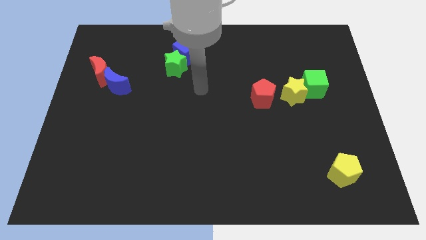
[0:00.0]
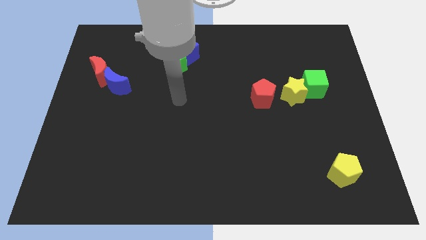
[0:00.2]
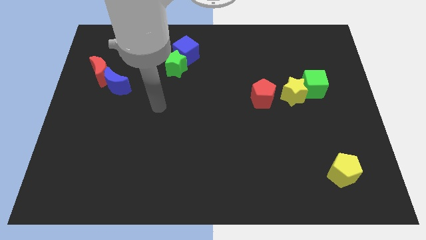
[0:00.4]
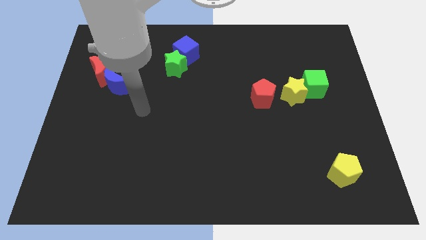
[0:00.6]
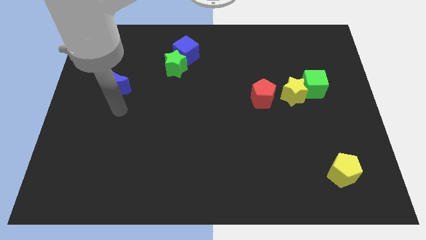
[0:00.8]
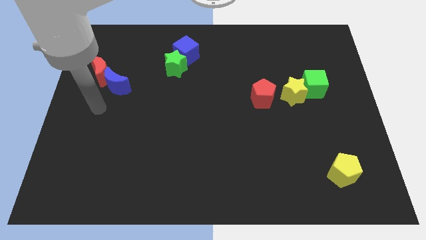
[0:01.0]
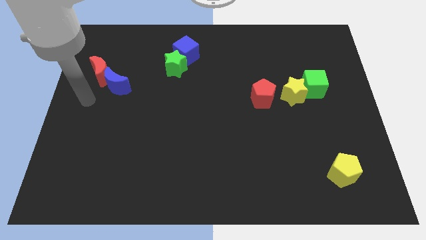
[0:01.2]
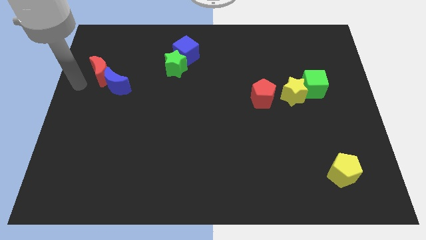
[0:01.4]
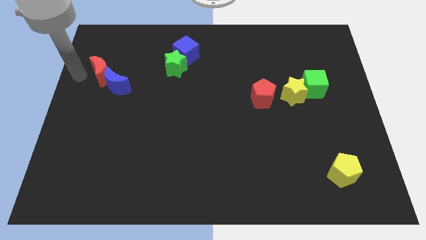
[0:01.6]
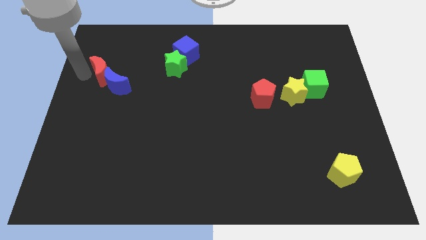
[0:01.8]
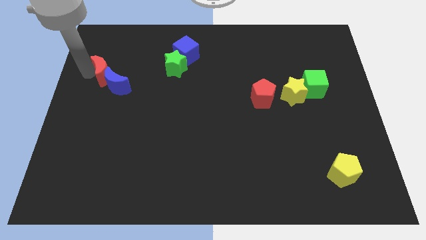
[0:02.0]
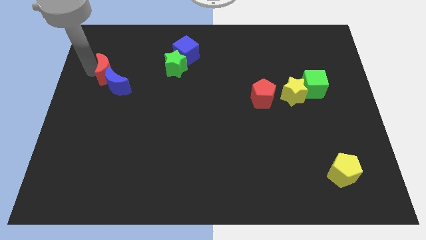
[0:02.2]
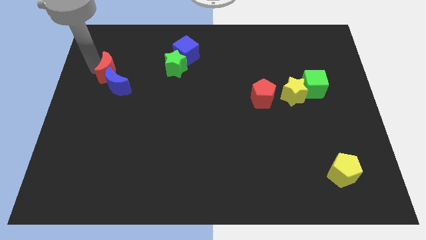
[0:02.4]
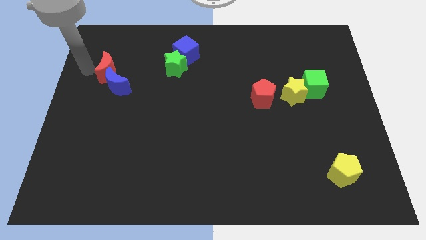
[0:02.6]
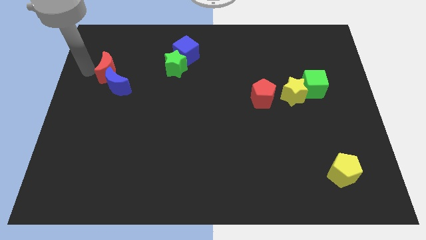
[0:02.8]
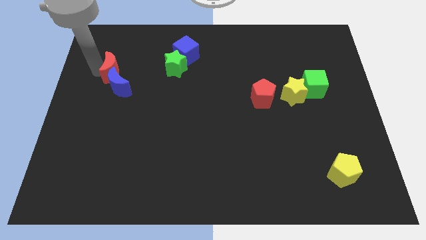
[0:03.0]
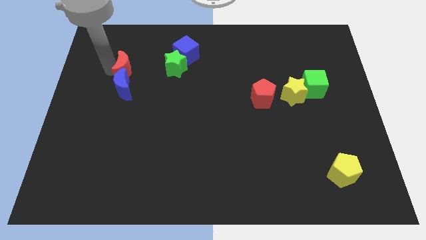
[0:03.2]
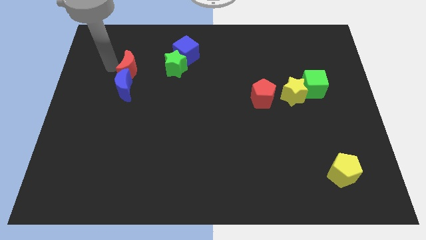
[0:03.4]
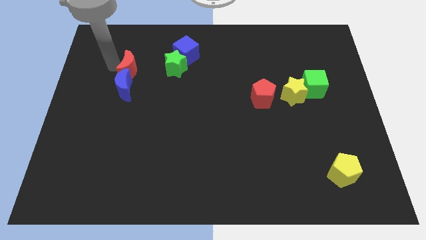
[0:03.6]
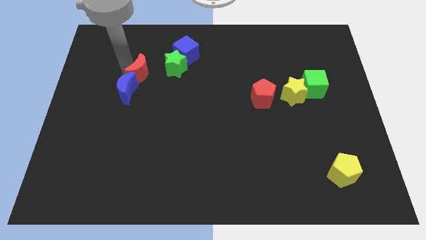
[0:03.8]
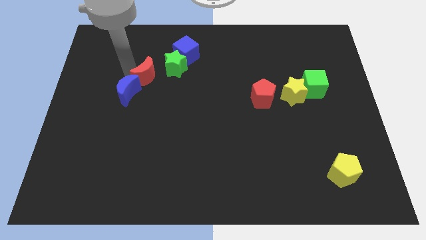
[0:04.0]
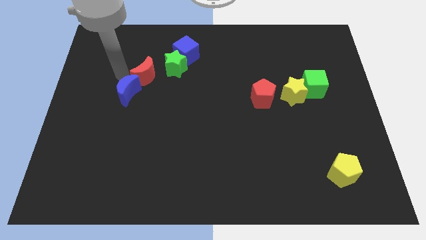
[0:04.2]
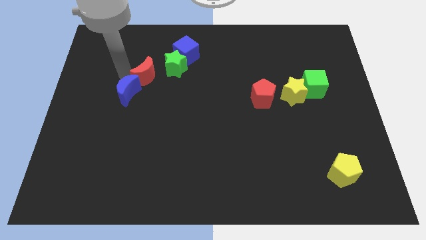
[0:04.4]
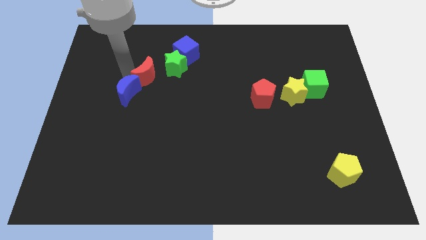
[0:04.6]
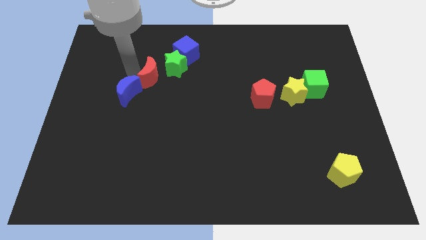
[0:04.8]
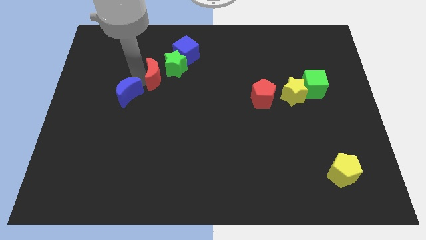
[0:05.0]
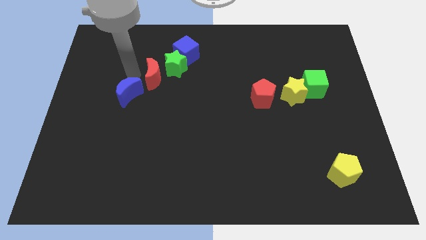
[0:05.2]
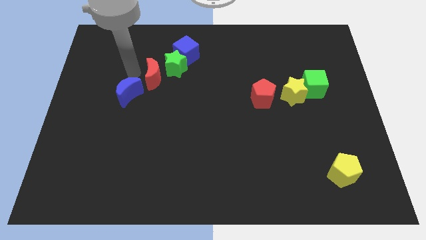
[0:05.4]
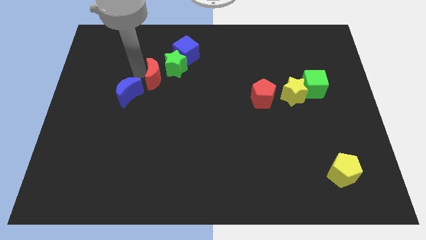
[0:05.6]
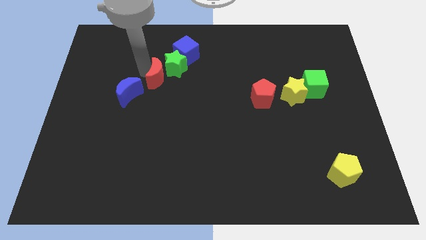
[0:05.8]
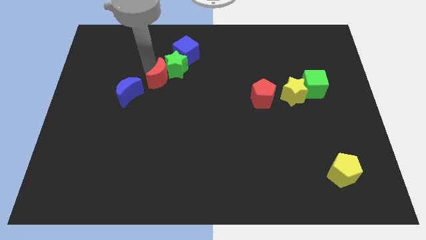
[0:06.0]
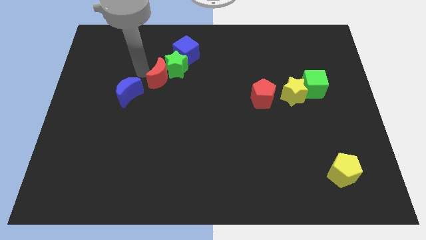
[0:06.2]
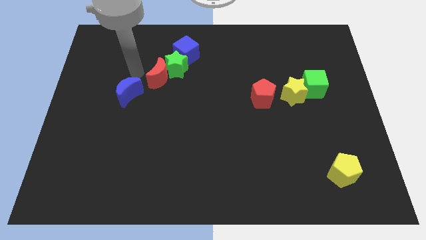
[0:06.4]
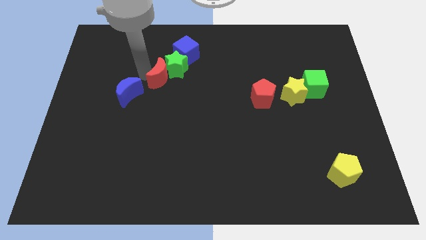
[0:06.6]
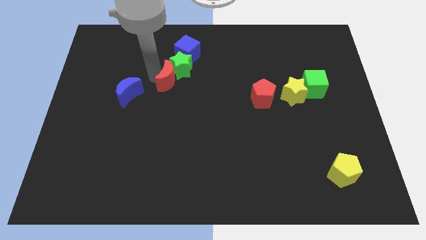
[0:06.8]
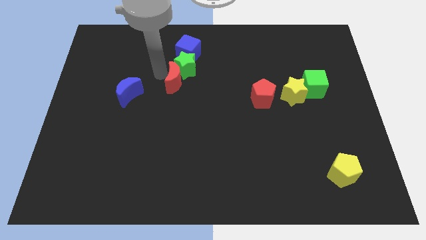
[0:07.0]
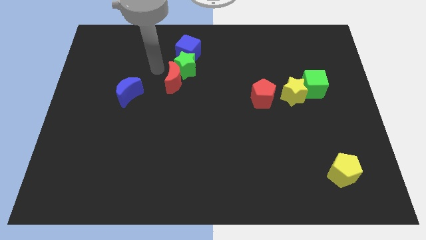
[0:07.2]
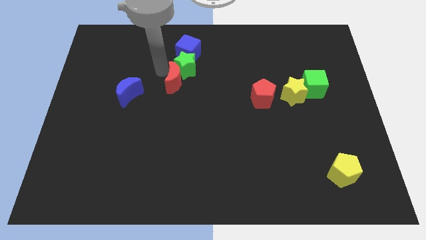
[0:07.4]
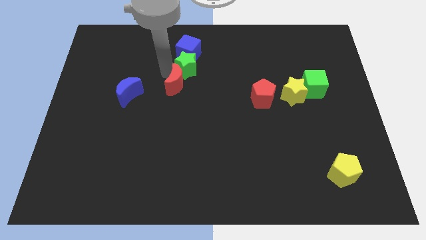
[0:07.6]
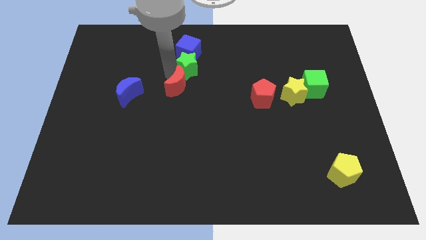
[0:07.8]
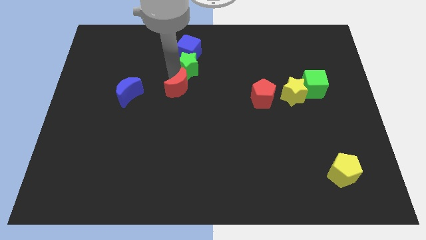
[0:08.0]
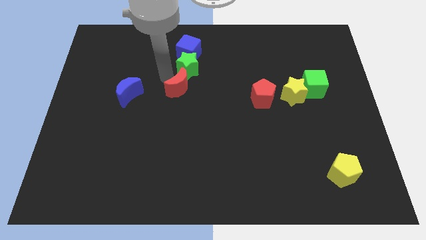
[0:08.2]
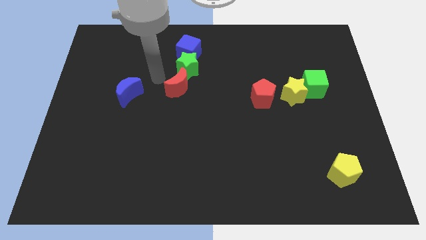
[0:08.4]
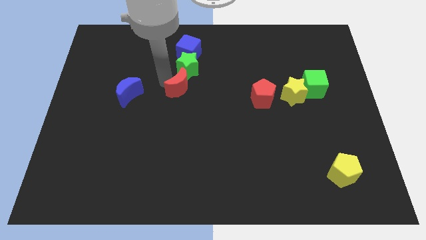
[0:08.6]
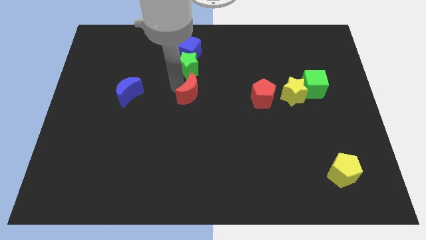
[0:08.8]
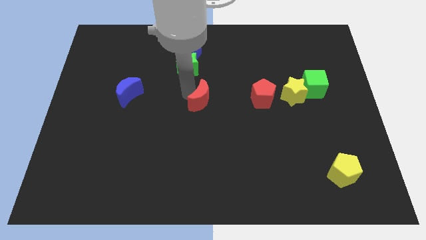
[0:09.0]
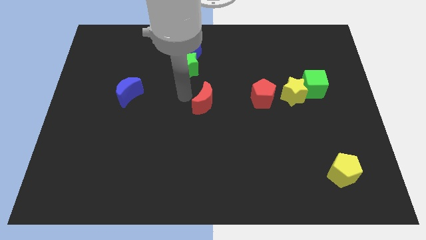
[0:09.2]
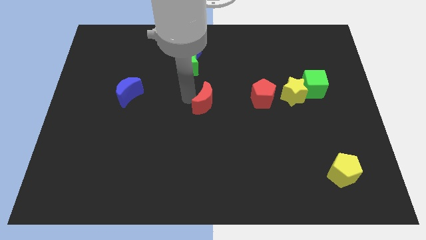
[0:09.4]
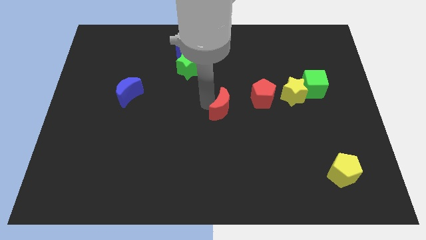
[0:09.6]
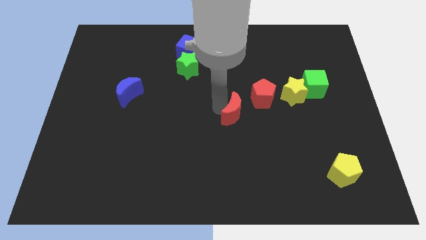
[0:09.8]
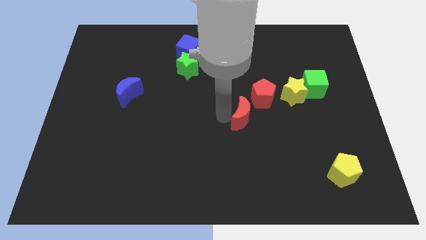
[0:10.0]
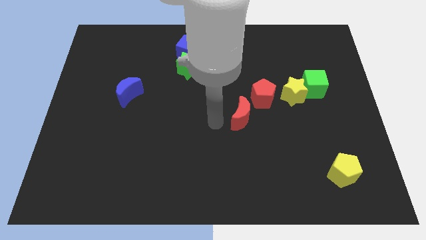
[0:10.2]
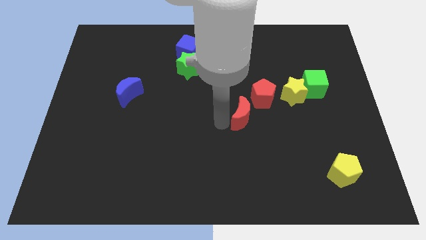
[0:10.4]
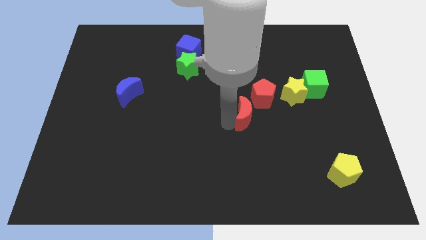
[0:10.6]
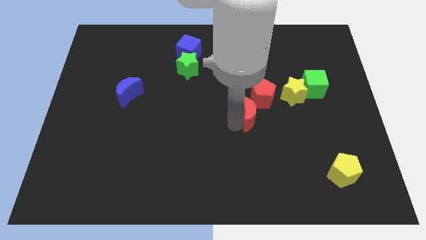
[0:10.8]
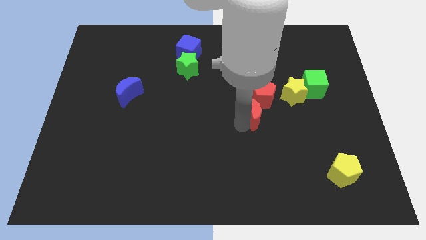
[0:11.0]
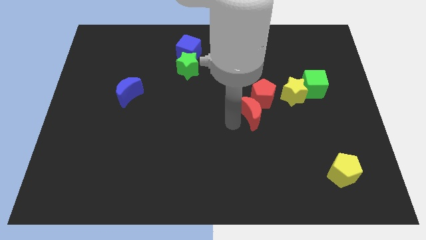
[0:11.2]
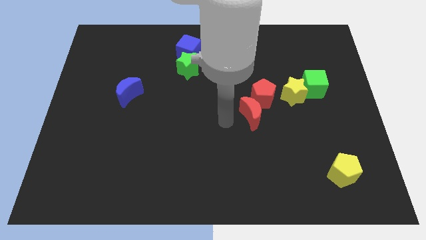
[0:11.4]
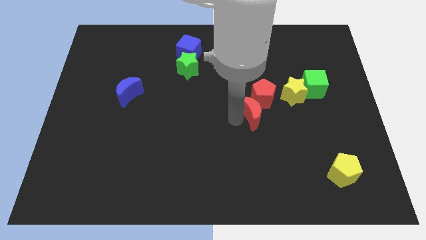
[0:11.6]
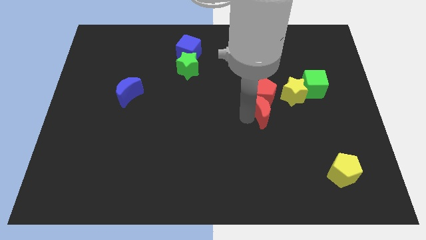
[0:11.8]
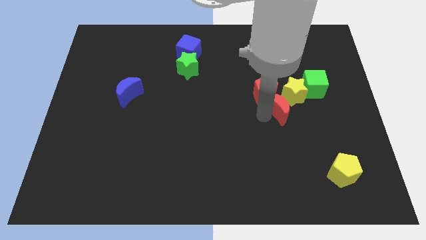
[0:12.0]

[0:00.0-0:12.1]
push the red moon next to the yellow star

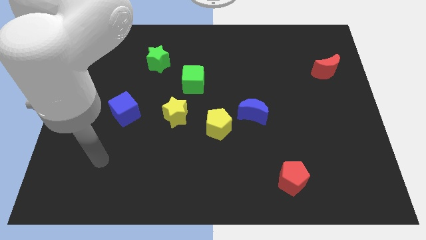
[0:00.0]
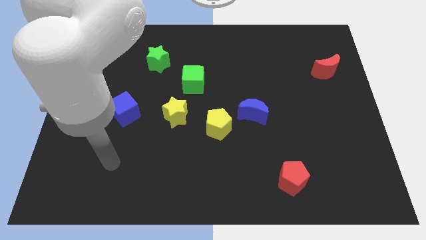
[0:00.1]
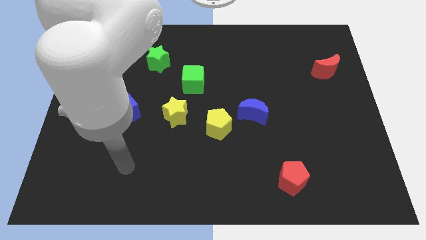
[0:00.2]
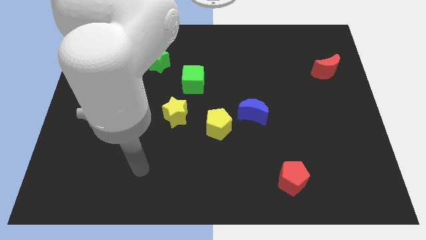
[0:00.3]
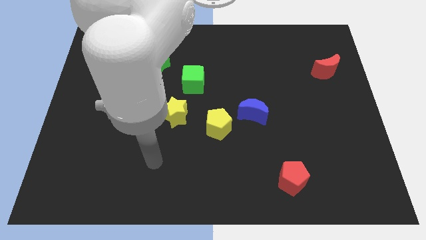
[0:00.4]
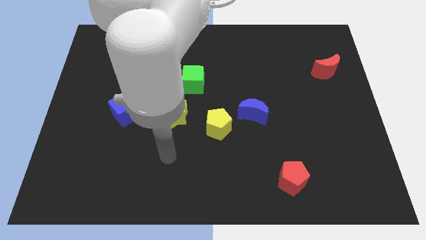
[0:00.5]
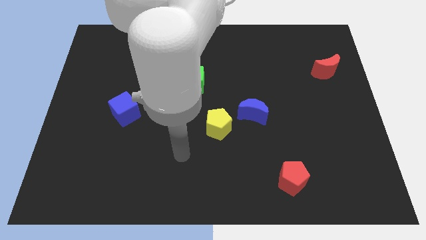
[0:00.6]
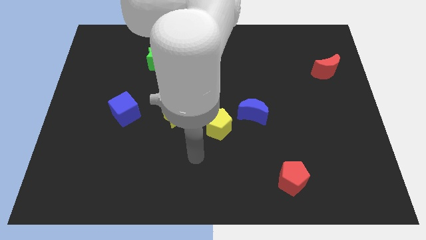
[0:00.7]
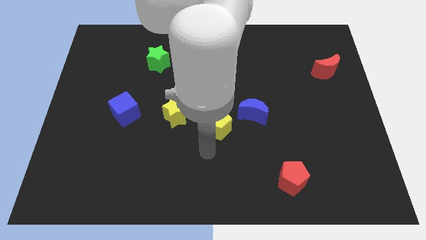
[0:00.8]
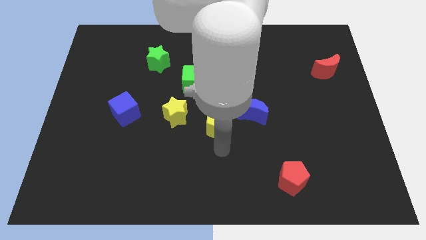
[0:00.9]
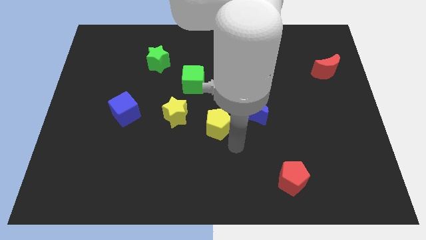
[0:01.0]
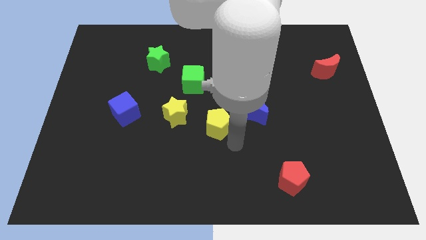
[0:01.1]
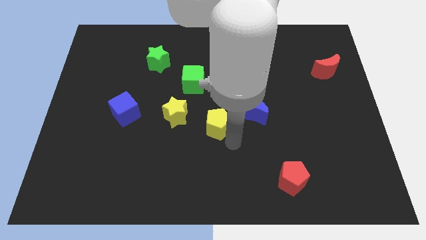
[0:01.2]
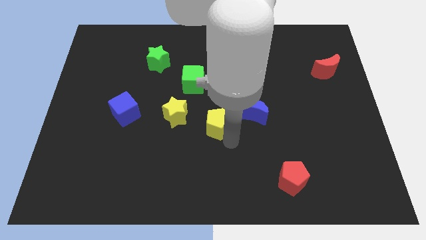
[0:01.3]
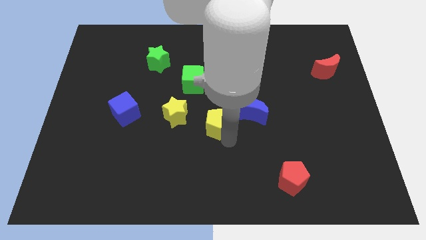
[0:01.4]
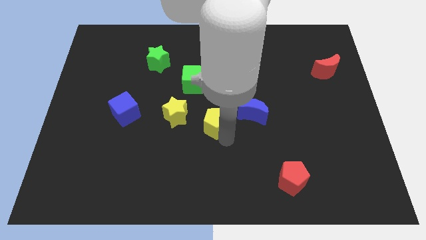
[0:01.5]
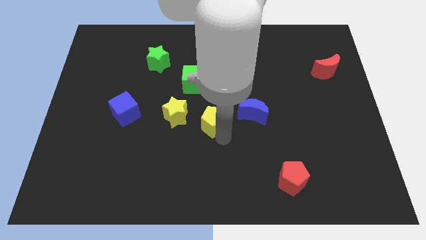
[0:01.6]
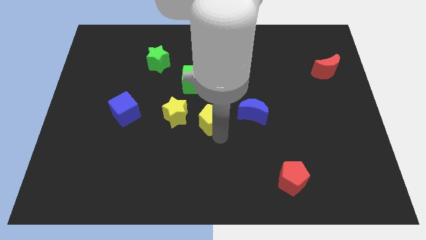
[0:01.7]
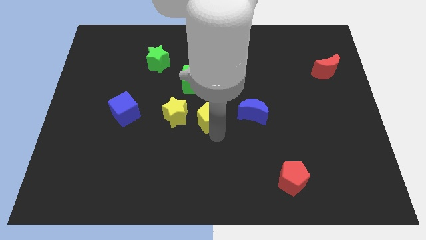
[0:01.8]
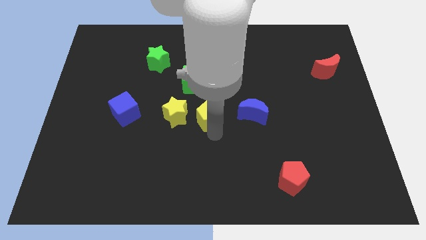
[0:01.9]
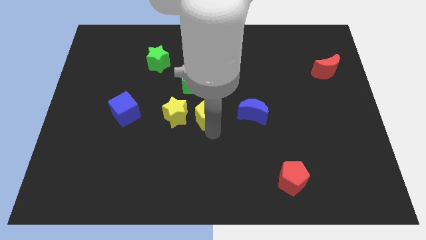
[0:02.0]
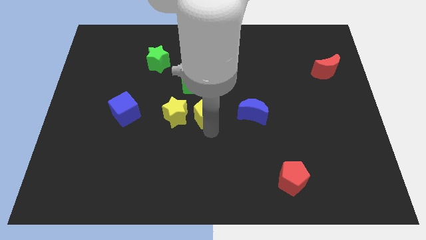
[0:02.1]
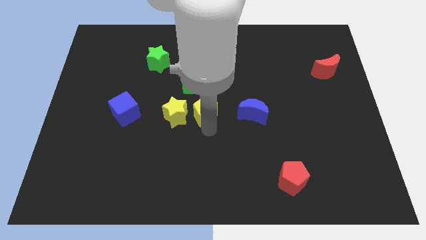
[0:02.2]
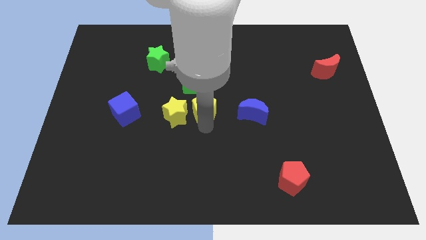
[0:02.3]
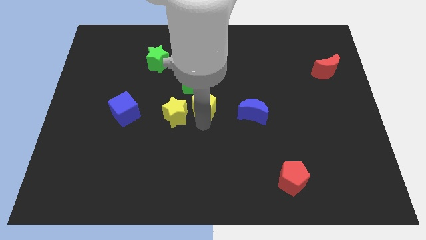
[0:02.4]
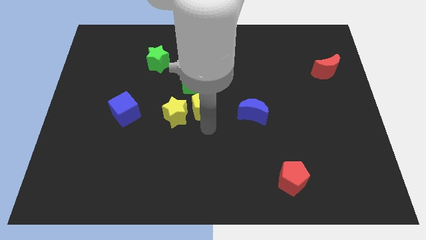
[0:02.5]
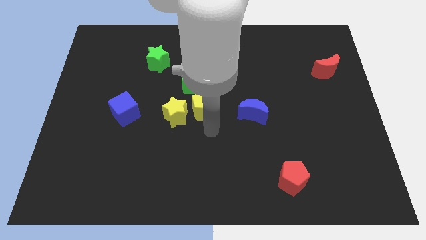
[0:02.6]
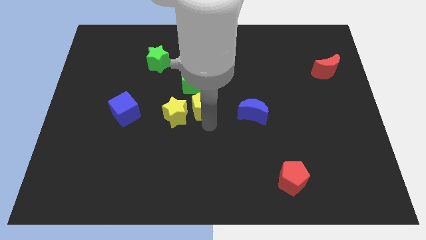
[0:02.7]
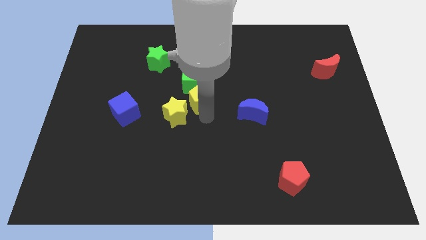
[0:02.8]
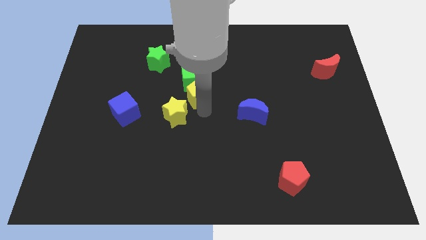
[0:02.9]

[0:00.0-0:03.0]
push the yellow pentagon next to the green cube
